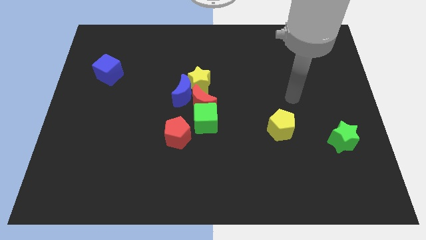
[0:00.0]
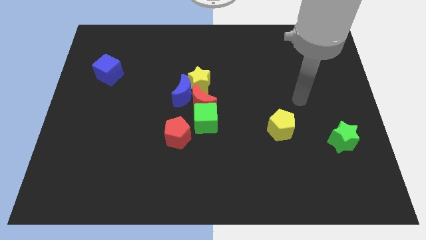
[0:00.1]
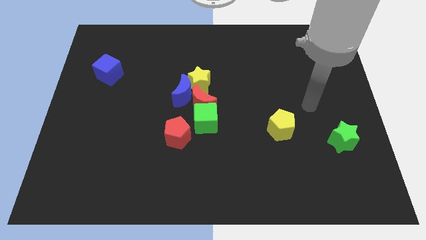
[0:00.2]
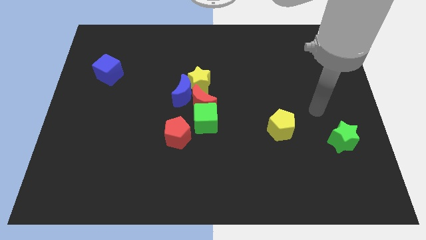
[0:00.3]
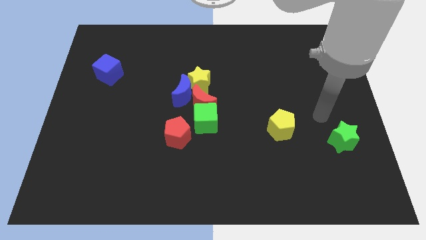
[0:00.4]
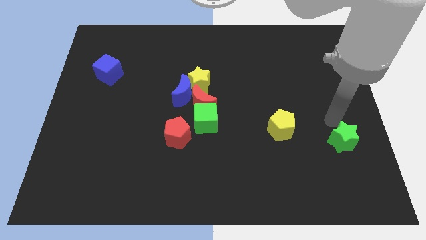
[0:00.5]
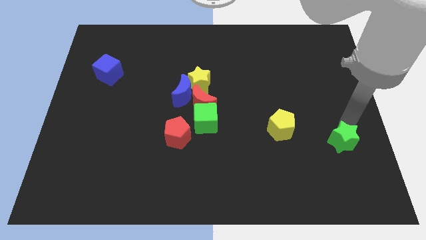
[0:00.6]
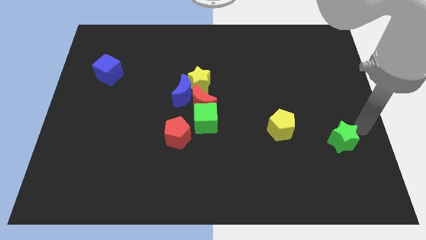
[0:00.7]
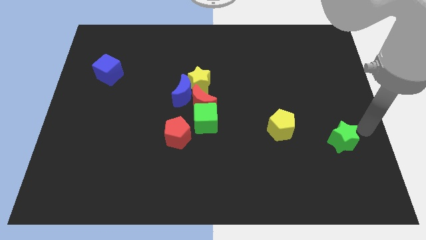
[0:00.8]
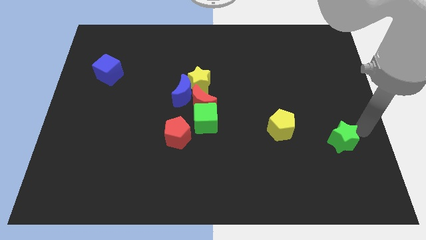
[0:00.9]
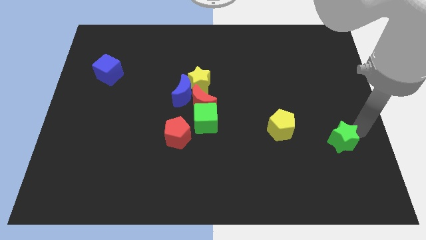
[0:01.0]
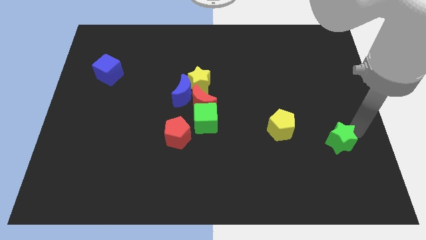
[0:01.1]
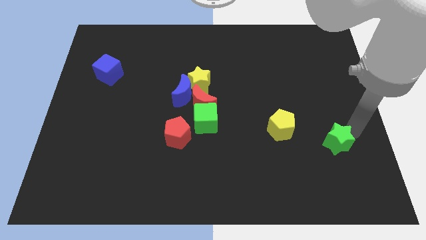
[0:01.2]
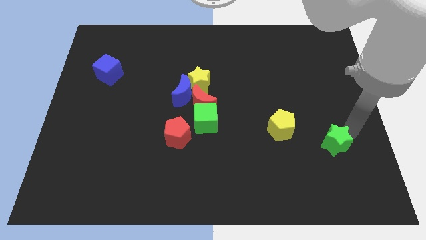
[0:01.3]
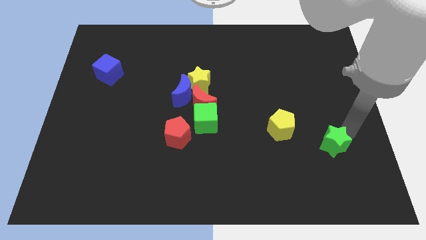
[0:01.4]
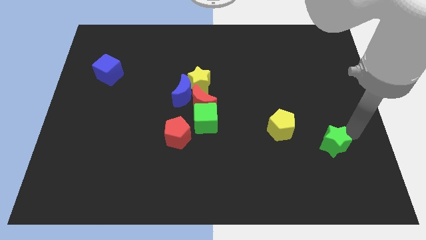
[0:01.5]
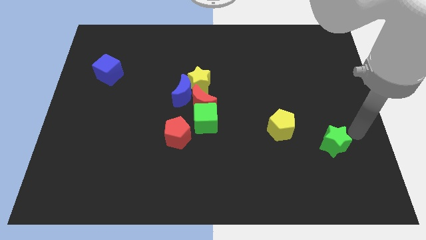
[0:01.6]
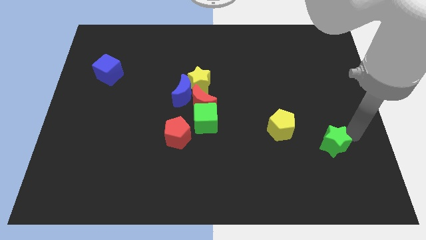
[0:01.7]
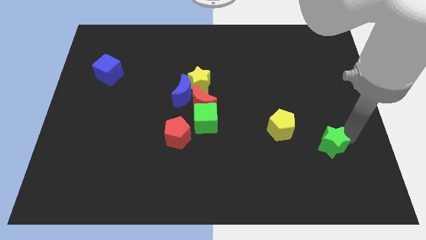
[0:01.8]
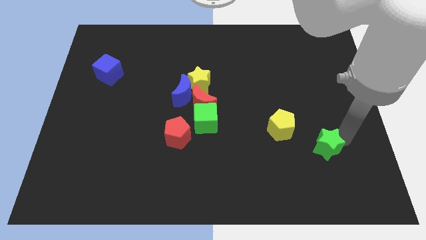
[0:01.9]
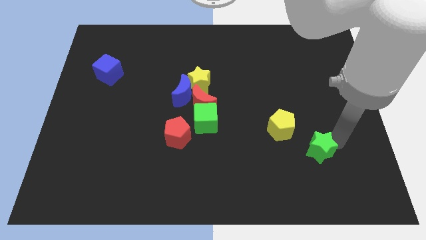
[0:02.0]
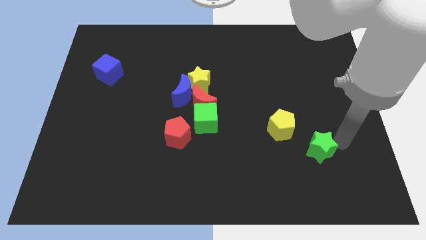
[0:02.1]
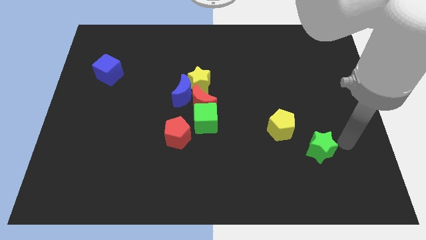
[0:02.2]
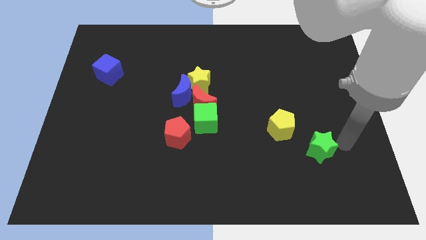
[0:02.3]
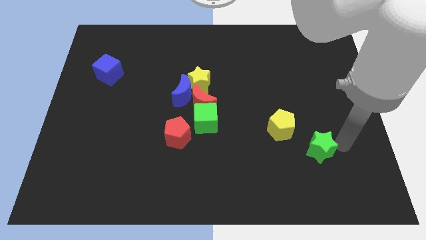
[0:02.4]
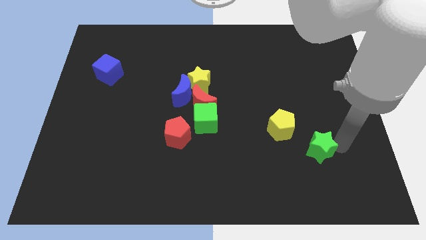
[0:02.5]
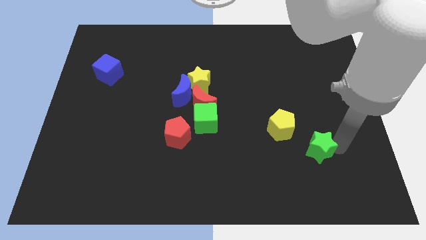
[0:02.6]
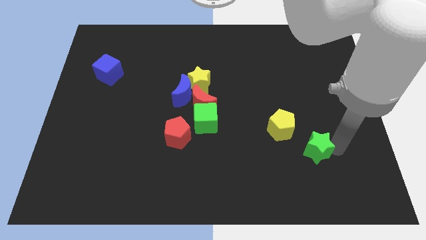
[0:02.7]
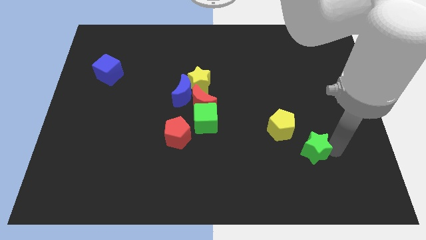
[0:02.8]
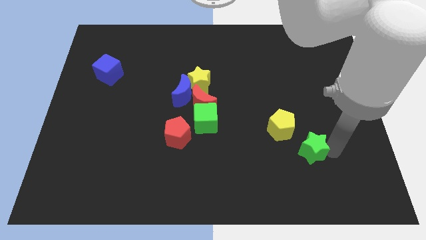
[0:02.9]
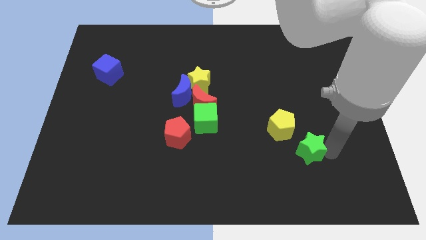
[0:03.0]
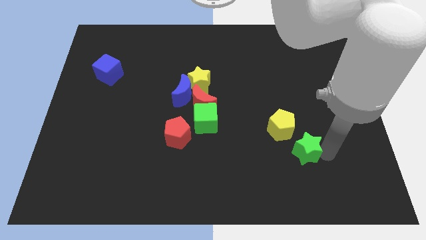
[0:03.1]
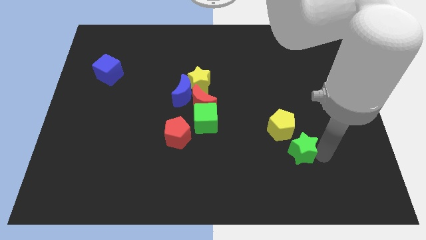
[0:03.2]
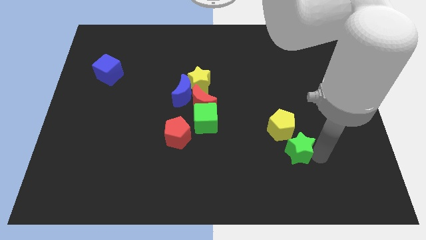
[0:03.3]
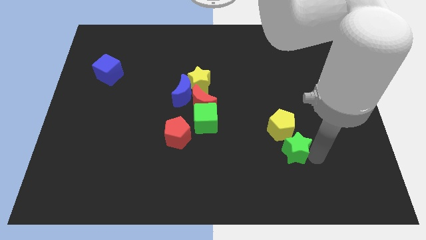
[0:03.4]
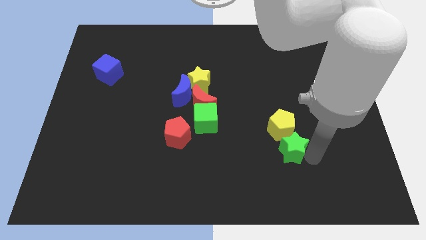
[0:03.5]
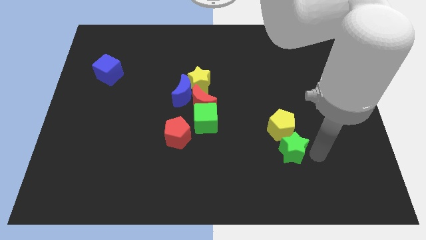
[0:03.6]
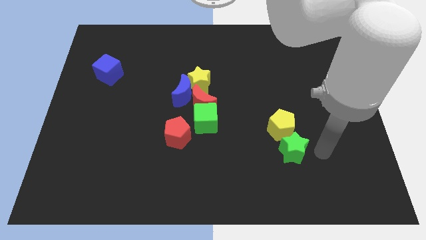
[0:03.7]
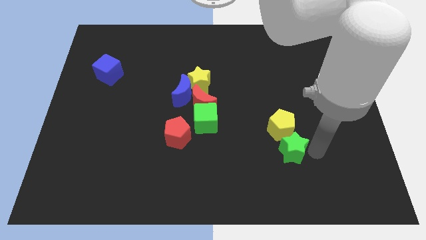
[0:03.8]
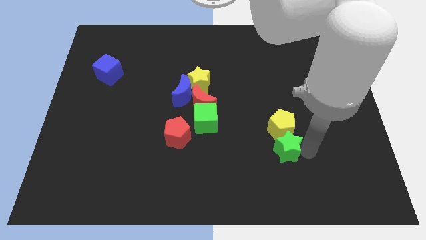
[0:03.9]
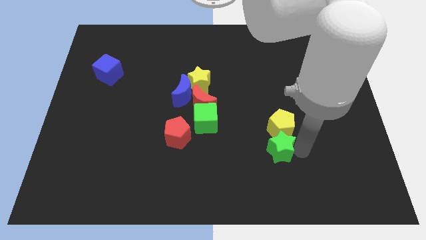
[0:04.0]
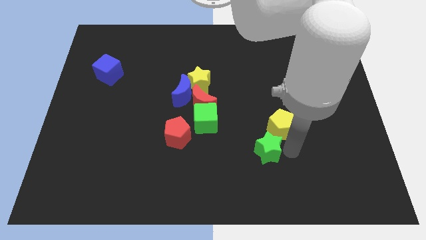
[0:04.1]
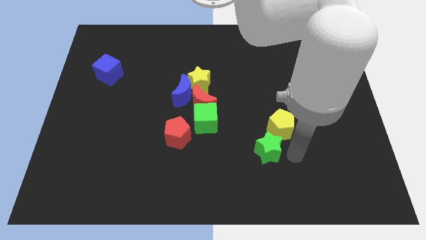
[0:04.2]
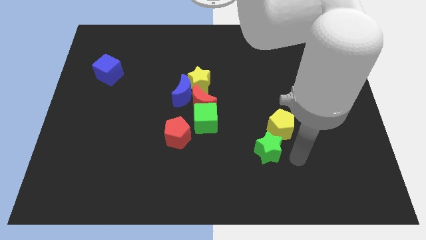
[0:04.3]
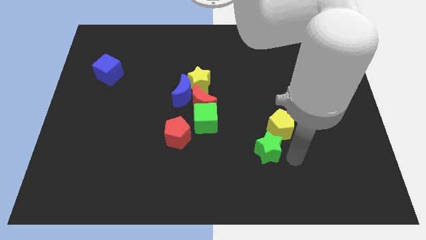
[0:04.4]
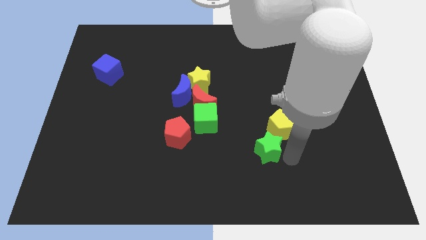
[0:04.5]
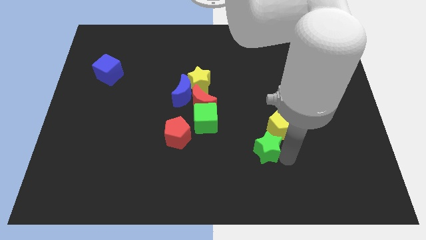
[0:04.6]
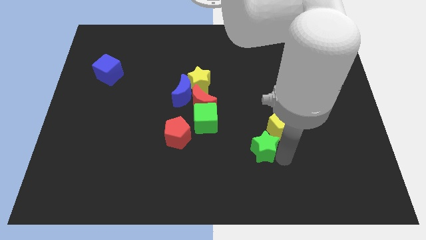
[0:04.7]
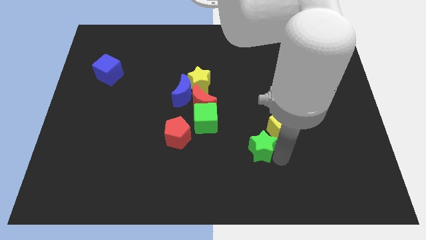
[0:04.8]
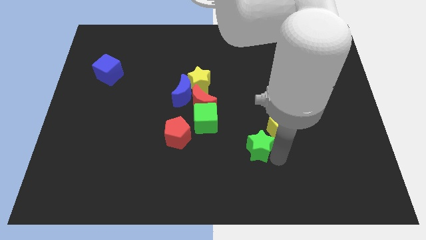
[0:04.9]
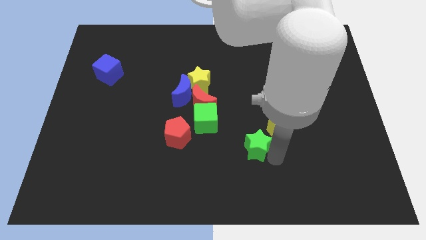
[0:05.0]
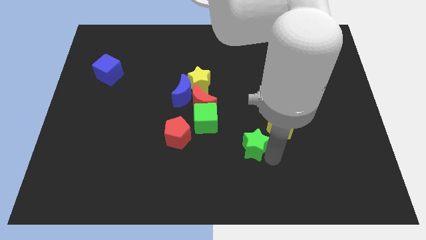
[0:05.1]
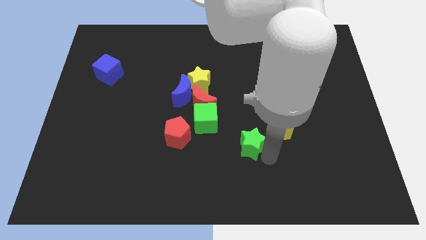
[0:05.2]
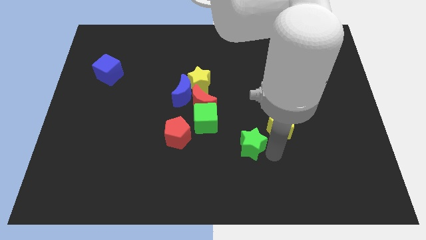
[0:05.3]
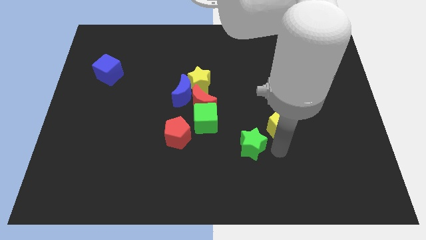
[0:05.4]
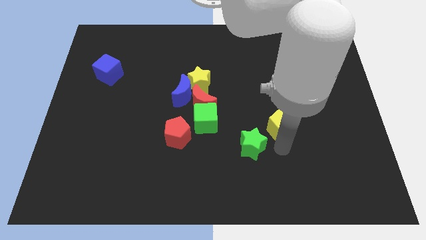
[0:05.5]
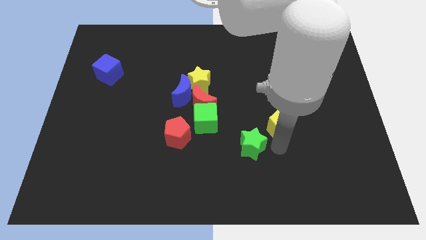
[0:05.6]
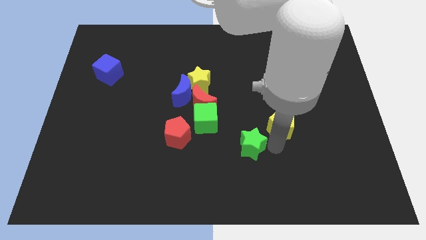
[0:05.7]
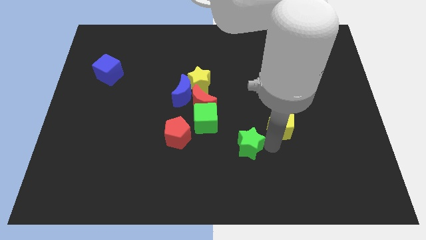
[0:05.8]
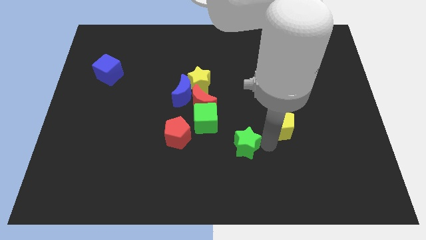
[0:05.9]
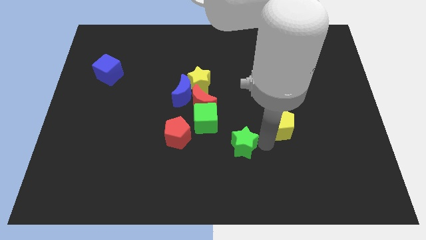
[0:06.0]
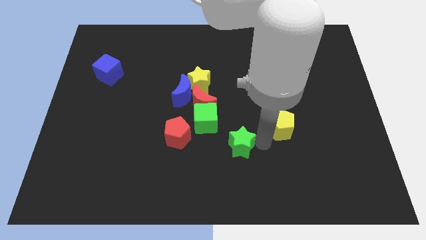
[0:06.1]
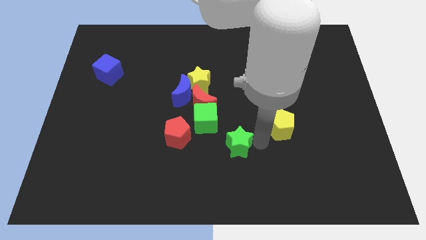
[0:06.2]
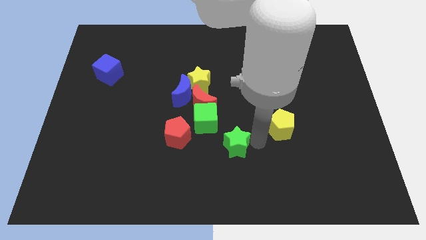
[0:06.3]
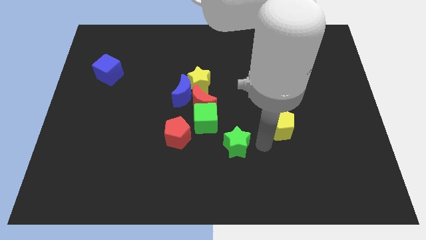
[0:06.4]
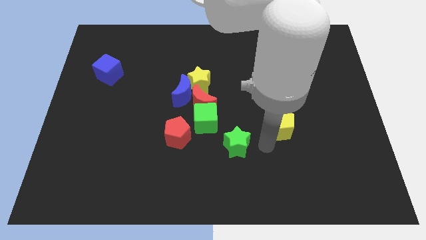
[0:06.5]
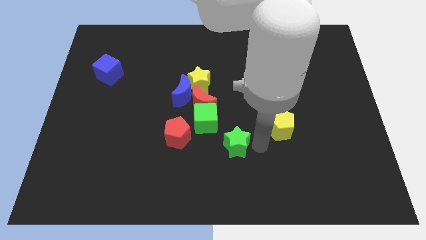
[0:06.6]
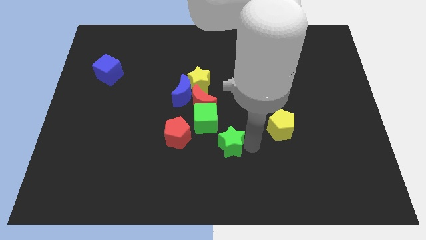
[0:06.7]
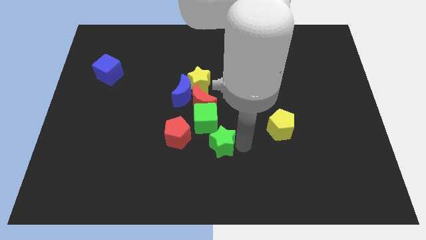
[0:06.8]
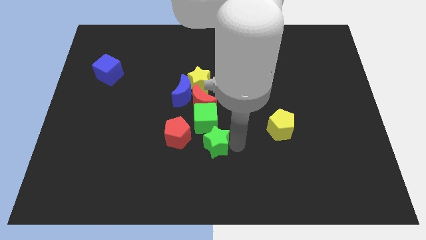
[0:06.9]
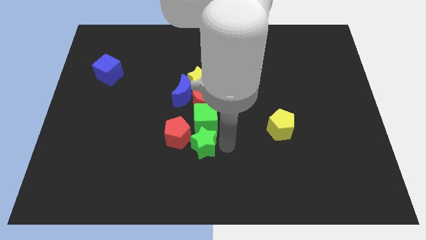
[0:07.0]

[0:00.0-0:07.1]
push the green star close to the red pentagon
